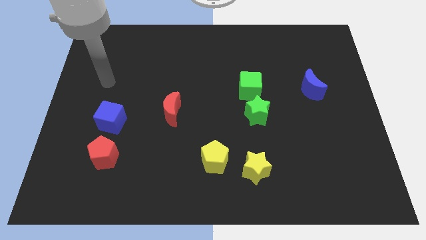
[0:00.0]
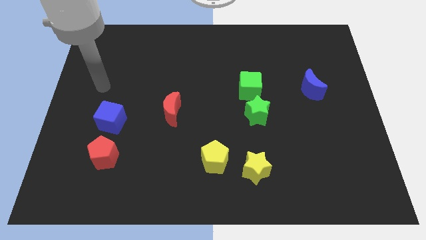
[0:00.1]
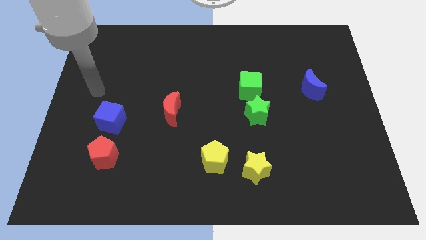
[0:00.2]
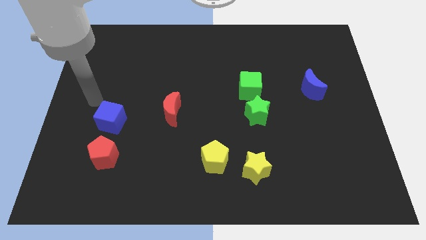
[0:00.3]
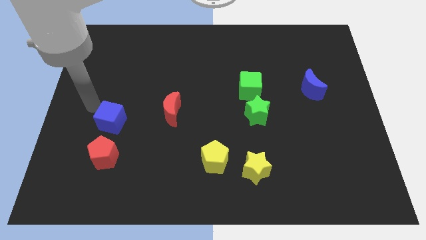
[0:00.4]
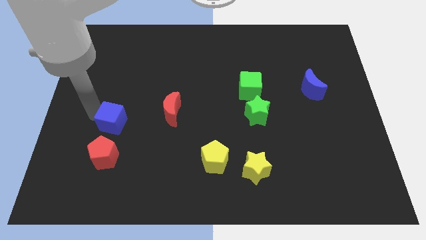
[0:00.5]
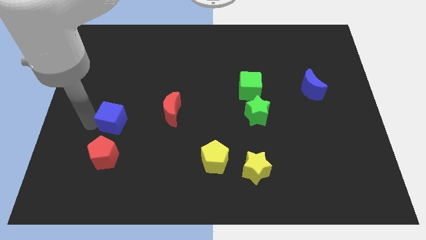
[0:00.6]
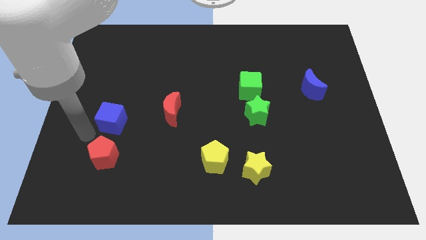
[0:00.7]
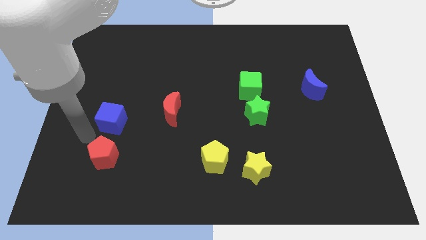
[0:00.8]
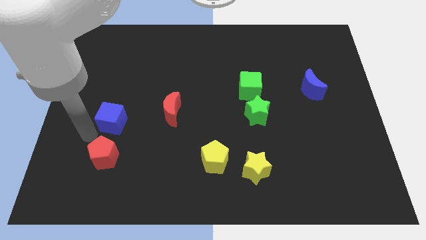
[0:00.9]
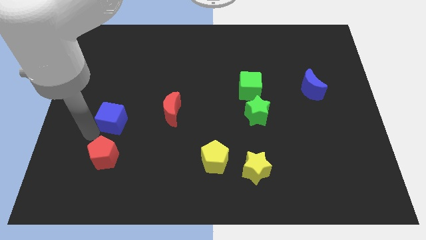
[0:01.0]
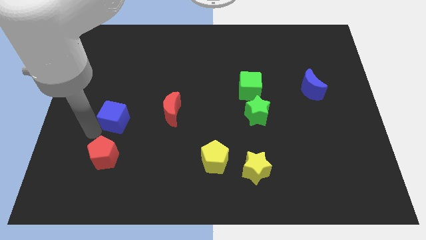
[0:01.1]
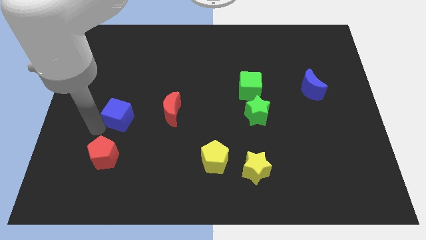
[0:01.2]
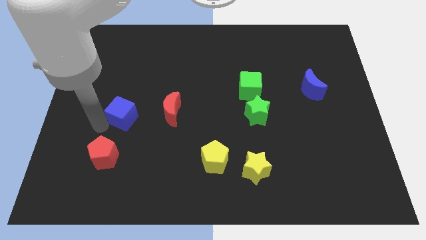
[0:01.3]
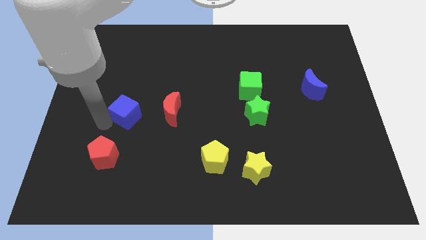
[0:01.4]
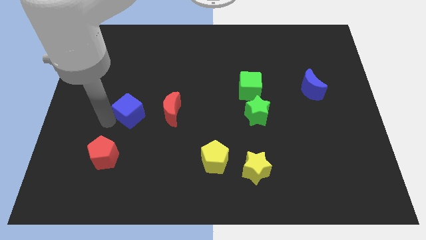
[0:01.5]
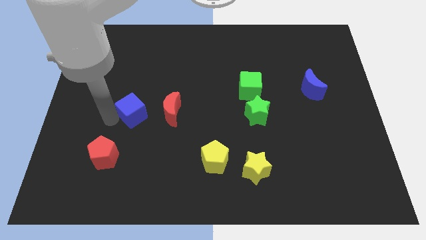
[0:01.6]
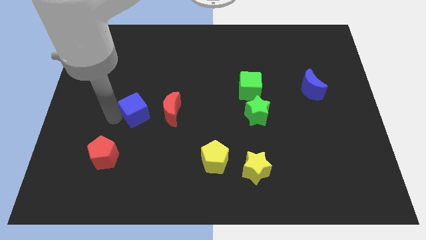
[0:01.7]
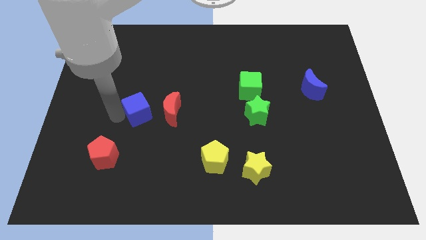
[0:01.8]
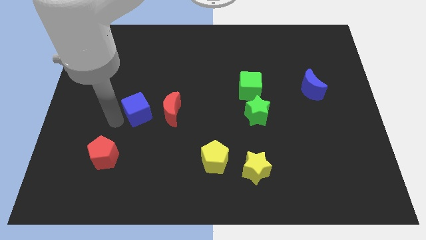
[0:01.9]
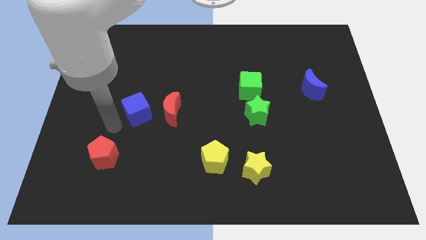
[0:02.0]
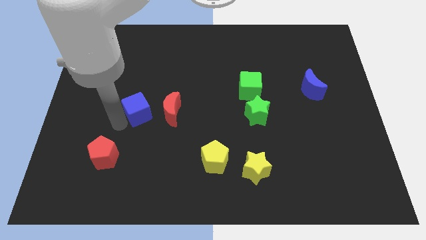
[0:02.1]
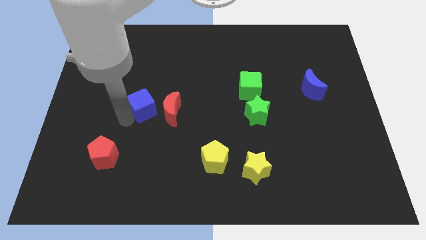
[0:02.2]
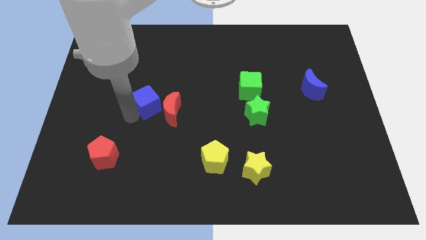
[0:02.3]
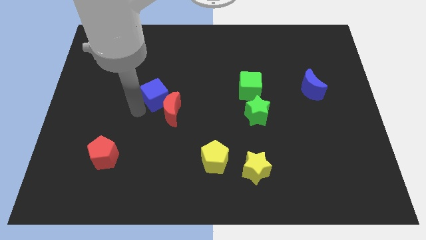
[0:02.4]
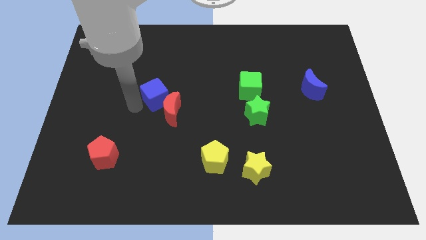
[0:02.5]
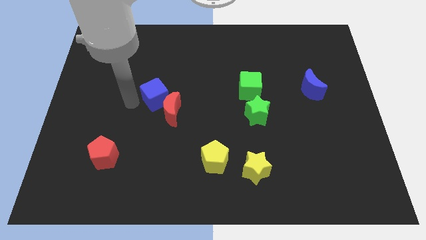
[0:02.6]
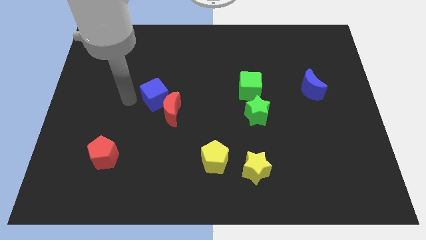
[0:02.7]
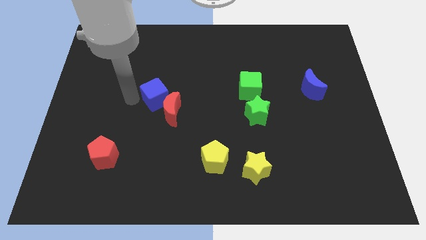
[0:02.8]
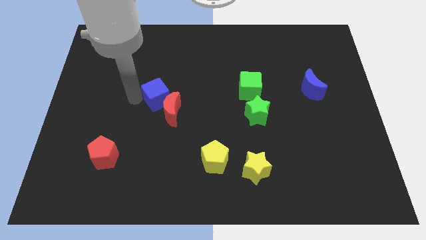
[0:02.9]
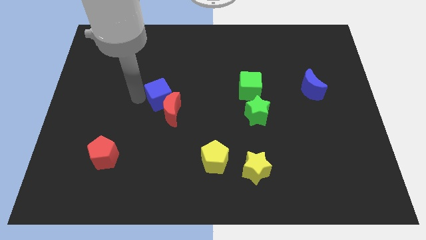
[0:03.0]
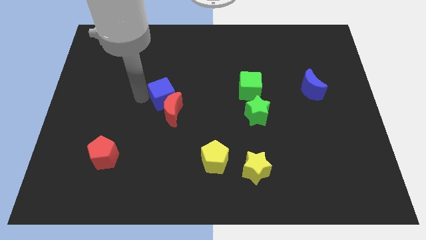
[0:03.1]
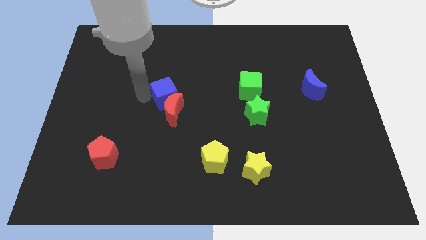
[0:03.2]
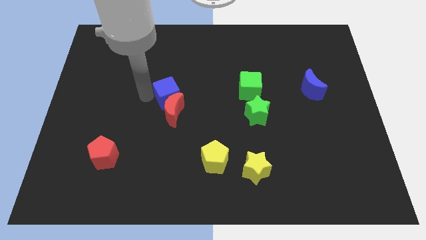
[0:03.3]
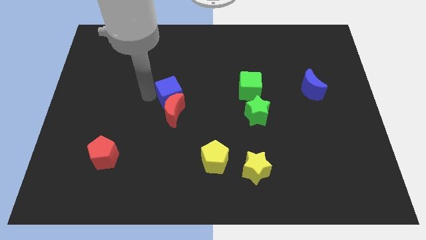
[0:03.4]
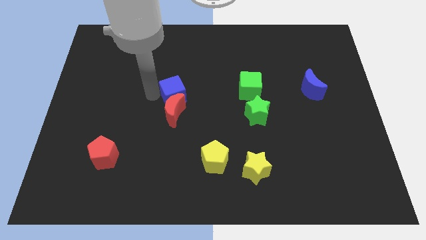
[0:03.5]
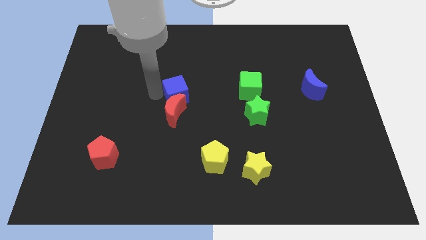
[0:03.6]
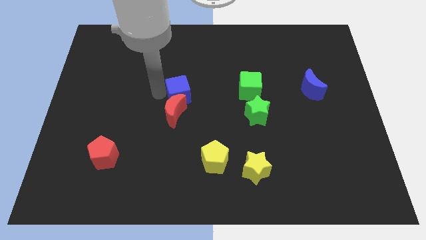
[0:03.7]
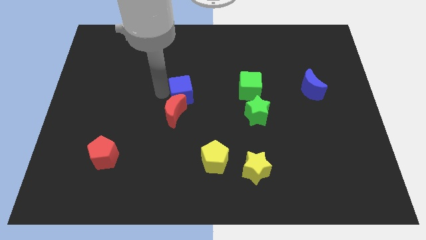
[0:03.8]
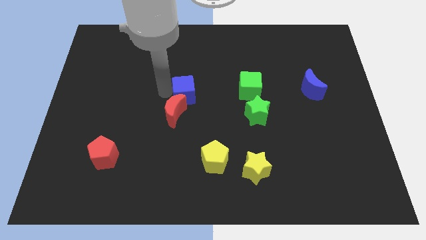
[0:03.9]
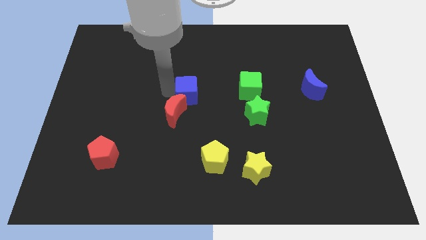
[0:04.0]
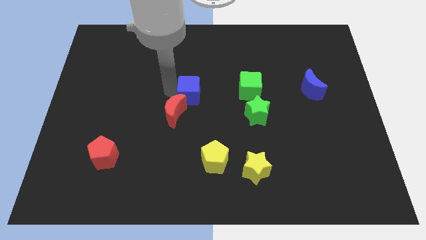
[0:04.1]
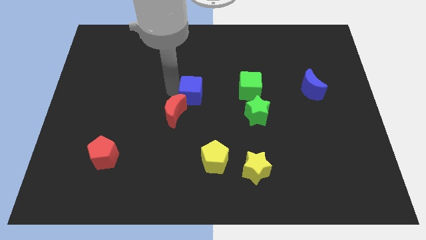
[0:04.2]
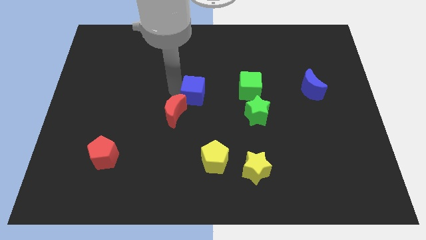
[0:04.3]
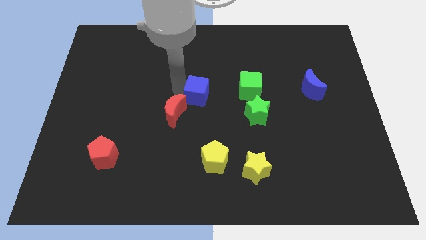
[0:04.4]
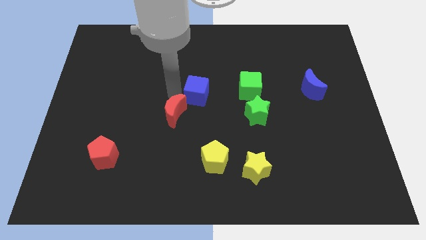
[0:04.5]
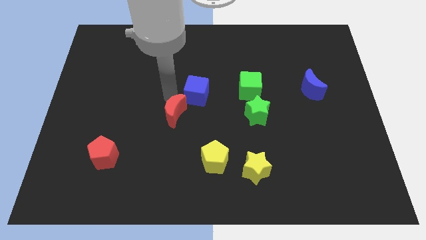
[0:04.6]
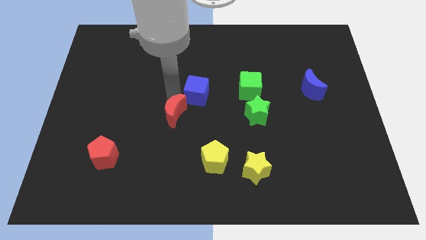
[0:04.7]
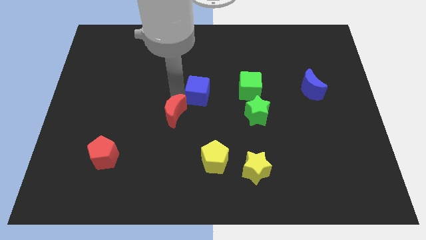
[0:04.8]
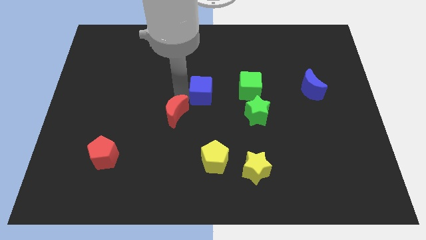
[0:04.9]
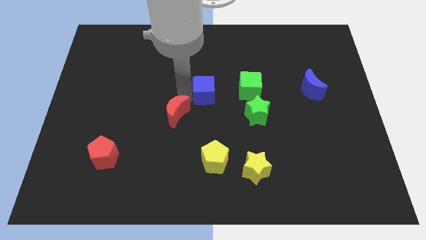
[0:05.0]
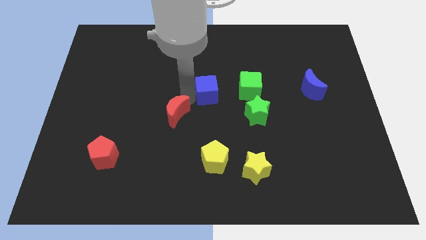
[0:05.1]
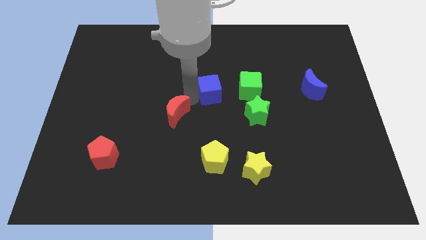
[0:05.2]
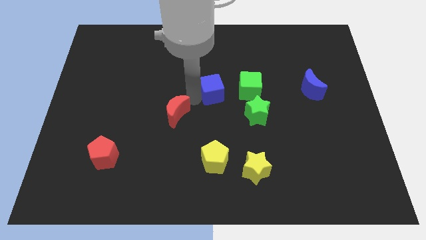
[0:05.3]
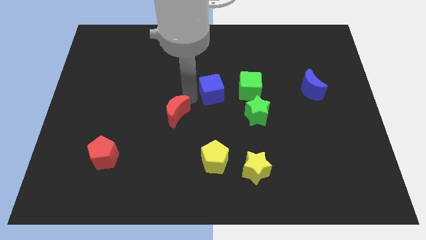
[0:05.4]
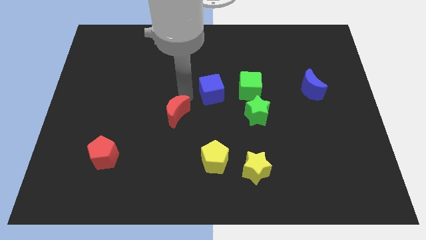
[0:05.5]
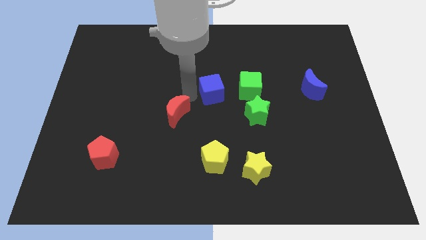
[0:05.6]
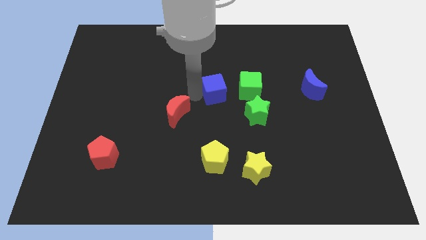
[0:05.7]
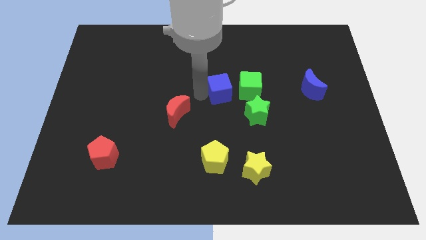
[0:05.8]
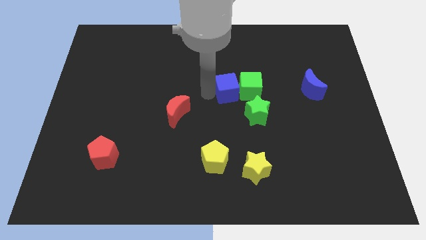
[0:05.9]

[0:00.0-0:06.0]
put the blue cube close to the green cube
